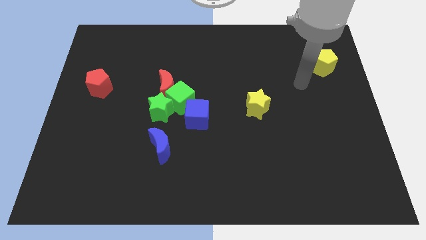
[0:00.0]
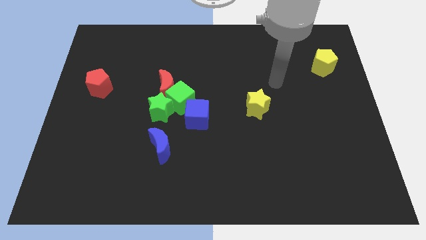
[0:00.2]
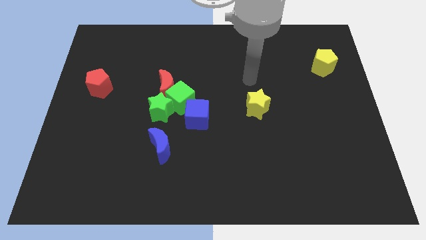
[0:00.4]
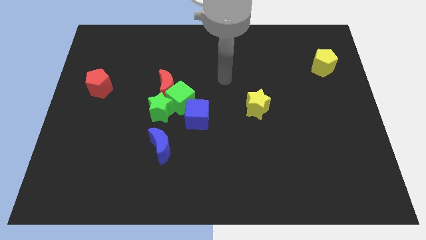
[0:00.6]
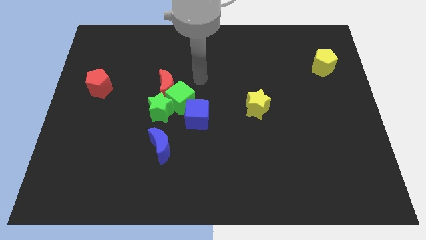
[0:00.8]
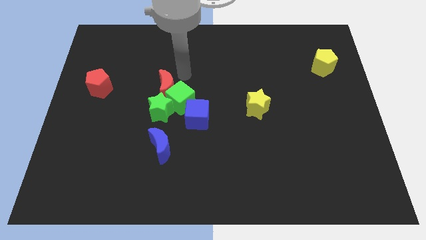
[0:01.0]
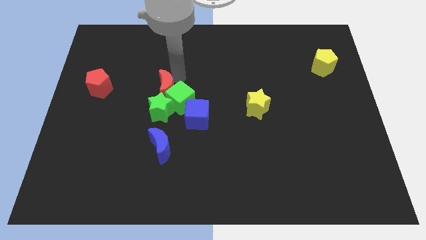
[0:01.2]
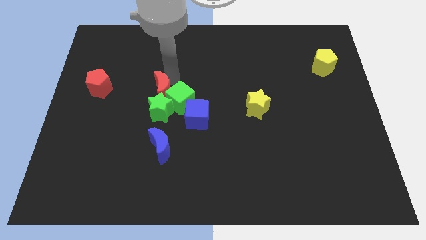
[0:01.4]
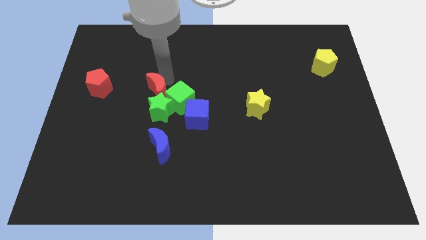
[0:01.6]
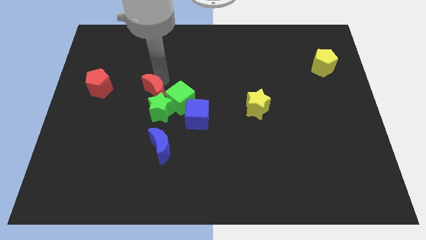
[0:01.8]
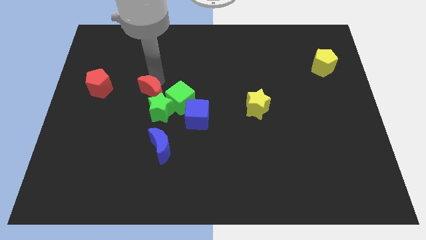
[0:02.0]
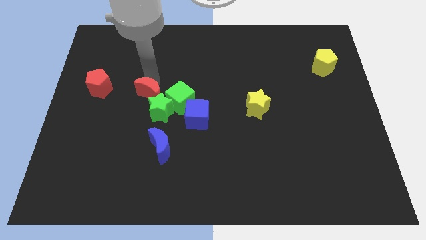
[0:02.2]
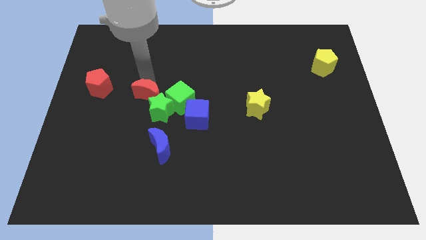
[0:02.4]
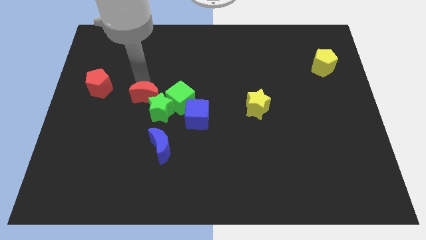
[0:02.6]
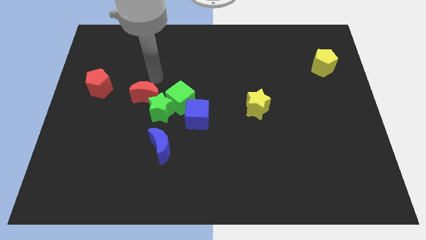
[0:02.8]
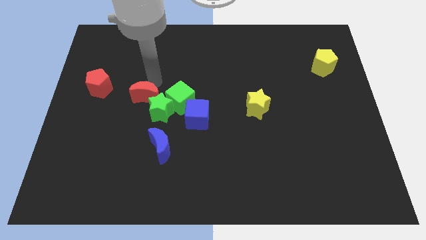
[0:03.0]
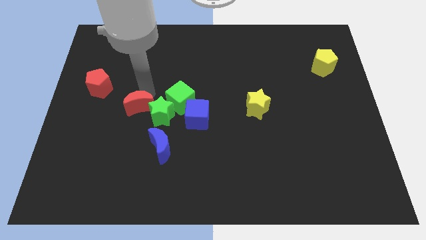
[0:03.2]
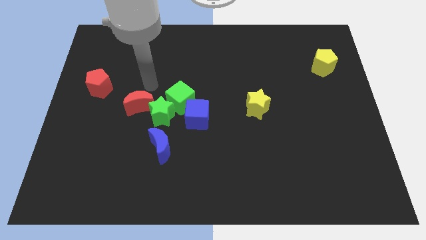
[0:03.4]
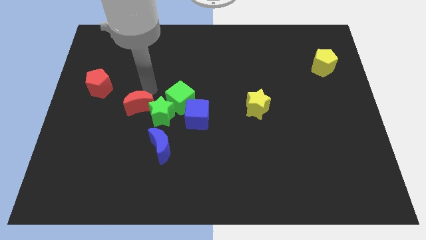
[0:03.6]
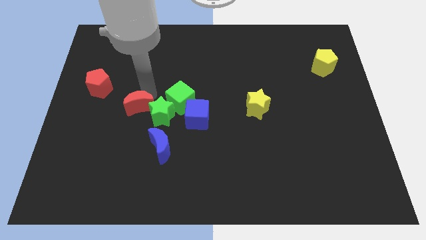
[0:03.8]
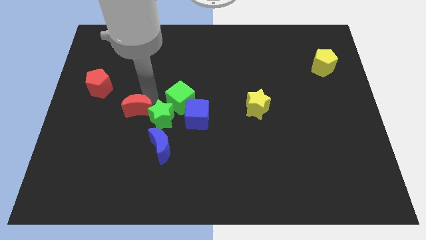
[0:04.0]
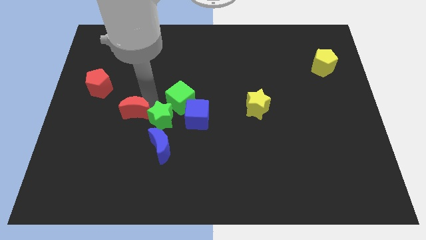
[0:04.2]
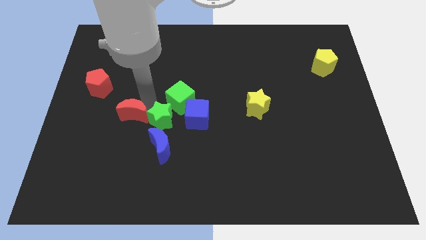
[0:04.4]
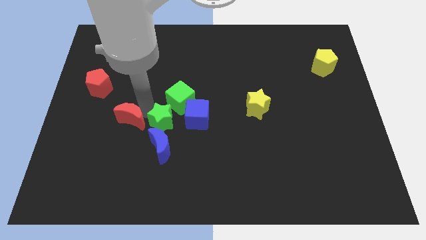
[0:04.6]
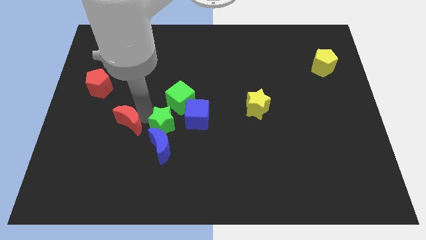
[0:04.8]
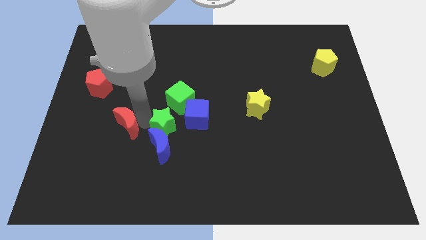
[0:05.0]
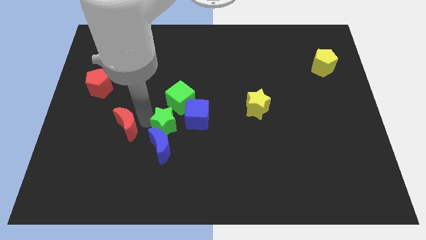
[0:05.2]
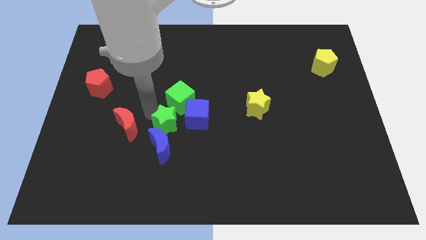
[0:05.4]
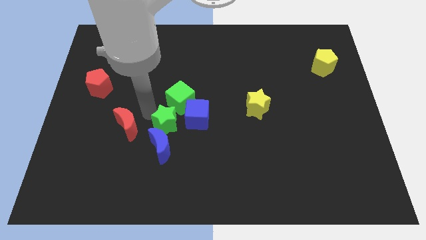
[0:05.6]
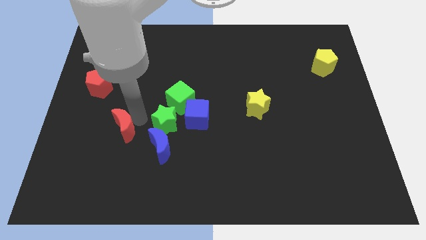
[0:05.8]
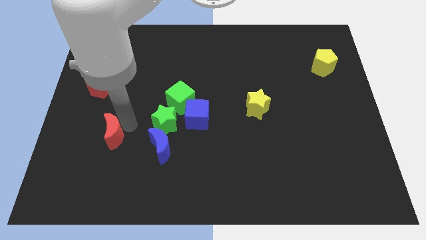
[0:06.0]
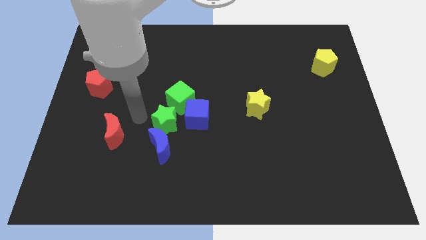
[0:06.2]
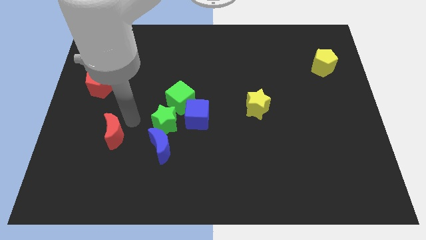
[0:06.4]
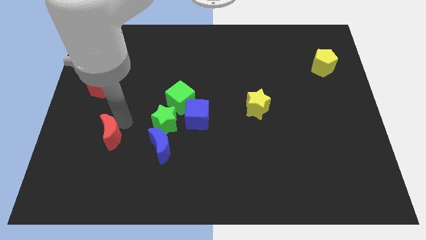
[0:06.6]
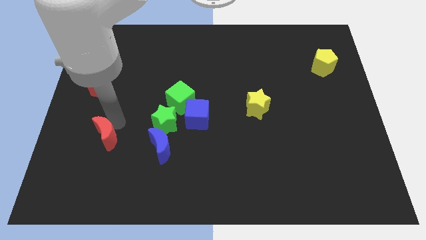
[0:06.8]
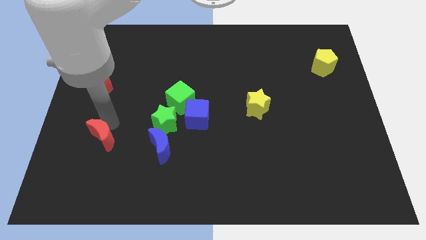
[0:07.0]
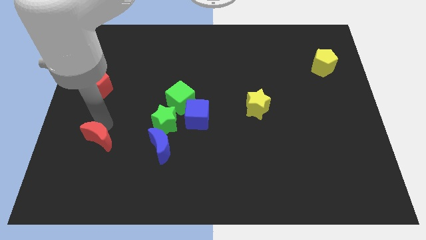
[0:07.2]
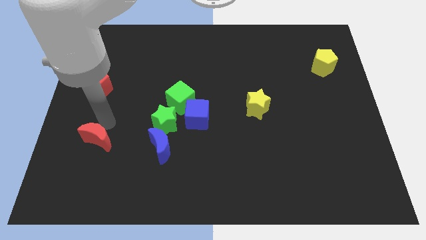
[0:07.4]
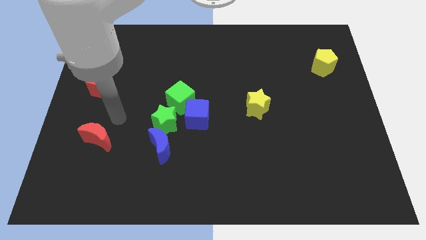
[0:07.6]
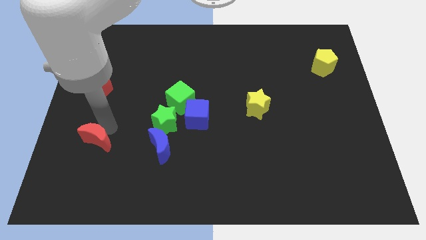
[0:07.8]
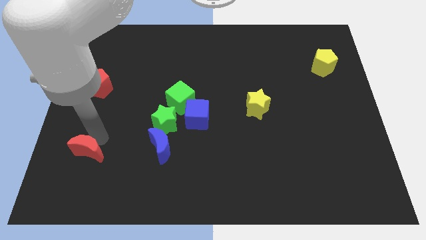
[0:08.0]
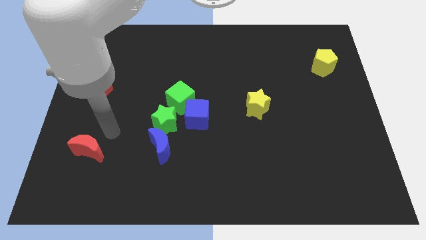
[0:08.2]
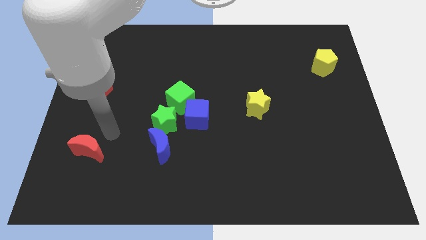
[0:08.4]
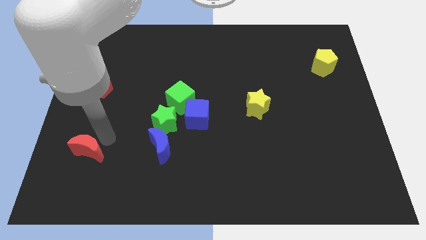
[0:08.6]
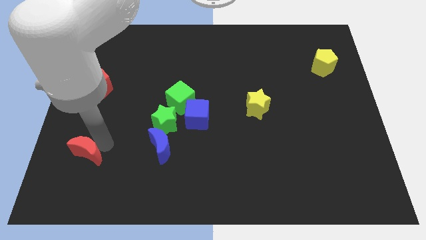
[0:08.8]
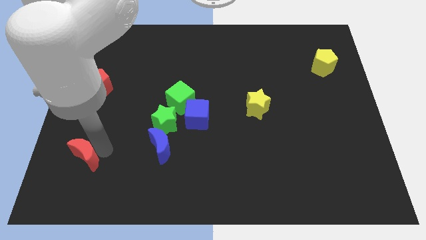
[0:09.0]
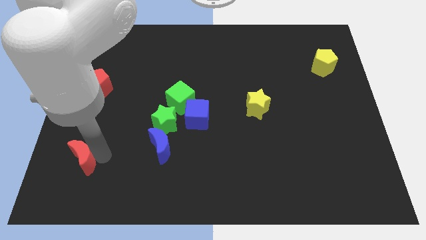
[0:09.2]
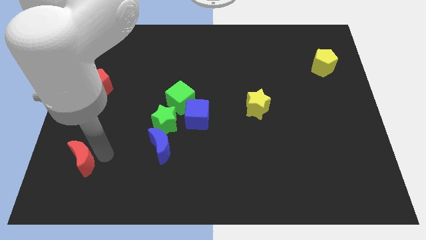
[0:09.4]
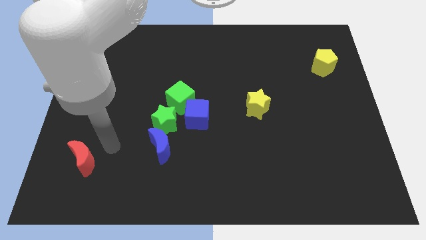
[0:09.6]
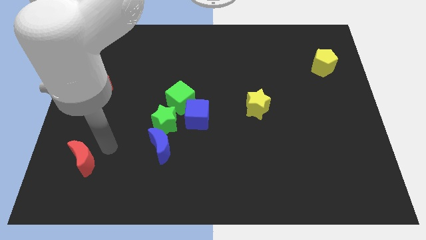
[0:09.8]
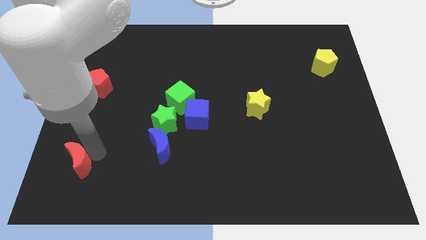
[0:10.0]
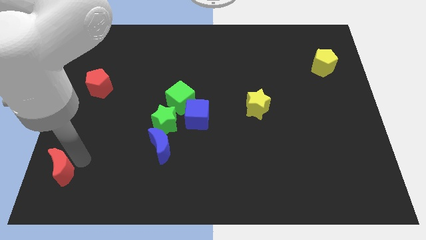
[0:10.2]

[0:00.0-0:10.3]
push the red moon to the bottom left

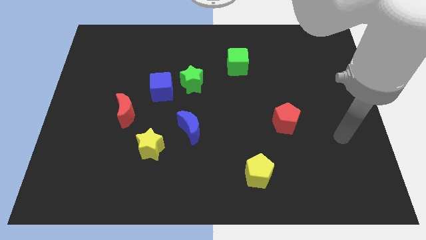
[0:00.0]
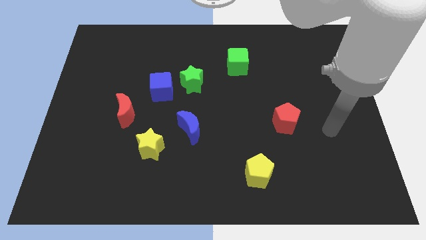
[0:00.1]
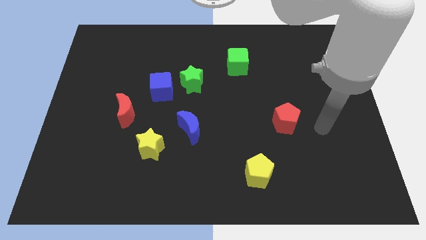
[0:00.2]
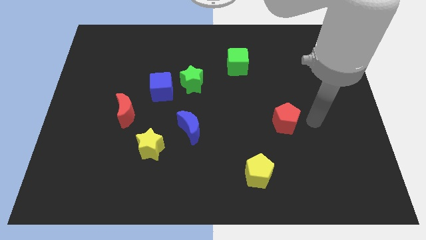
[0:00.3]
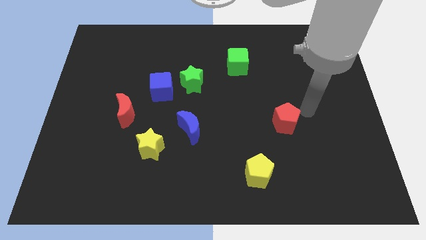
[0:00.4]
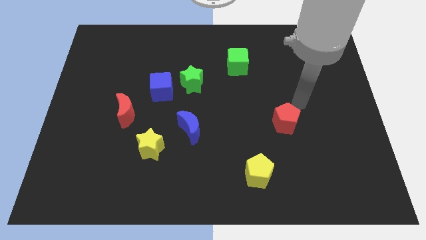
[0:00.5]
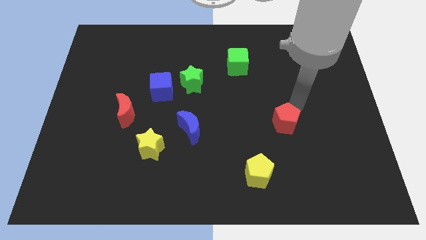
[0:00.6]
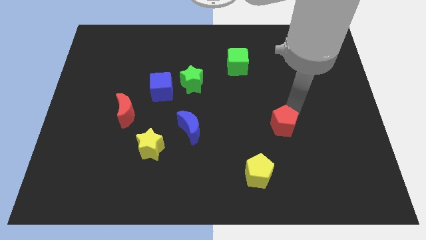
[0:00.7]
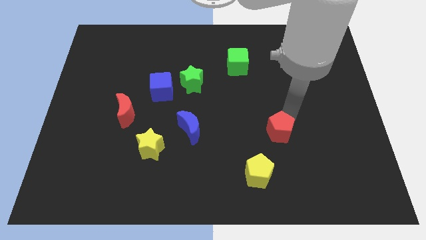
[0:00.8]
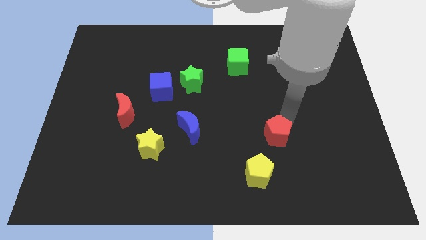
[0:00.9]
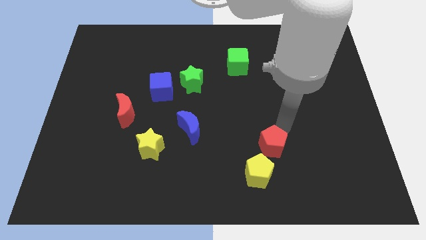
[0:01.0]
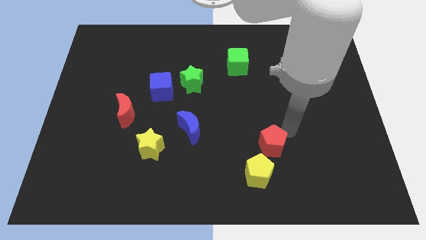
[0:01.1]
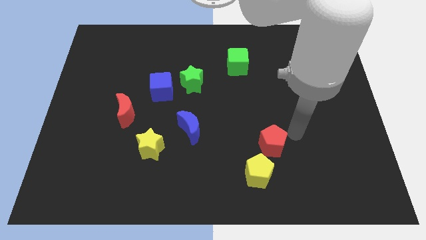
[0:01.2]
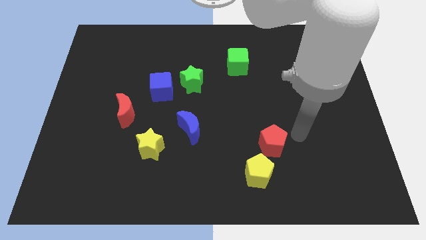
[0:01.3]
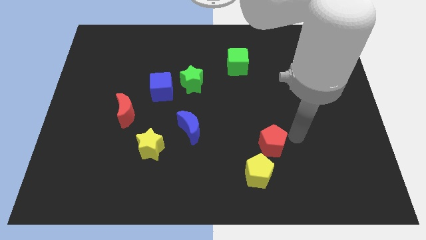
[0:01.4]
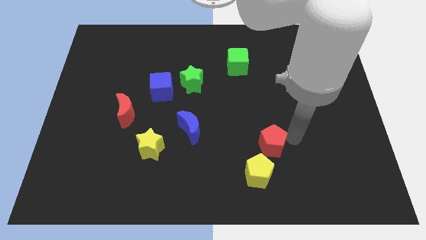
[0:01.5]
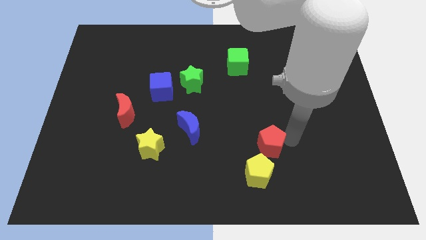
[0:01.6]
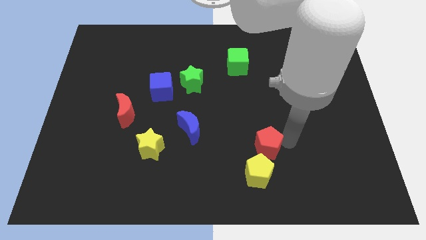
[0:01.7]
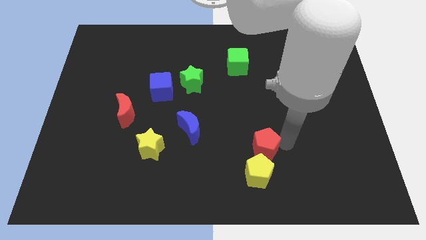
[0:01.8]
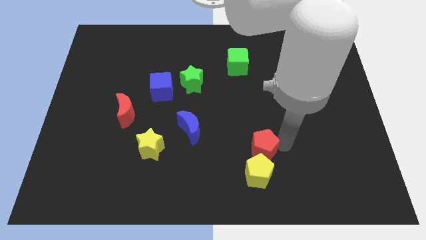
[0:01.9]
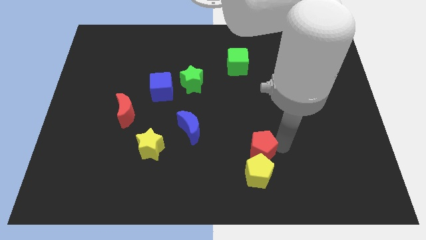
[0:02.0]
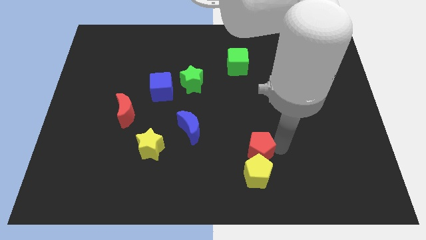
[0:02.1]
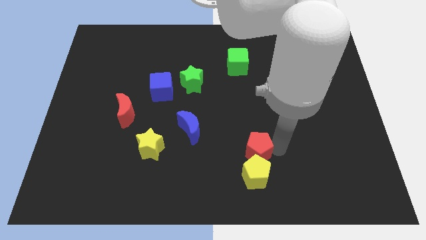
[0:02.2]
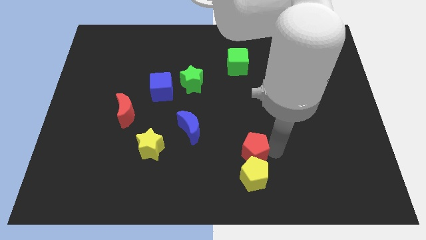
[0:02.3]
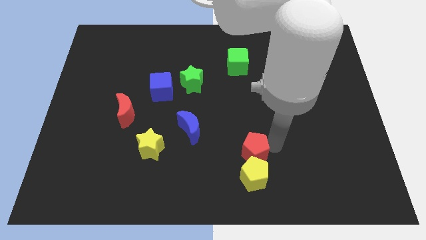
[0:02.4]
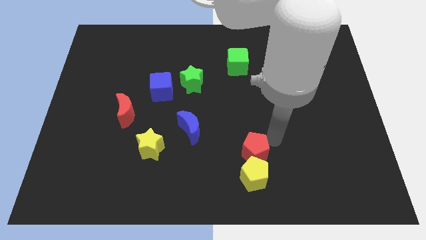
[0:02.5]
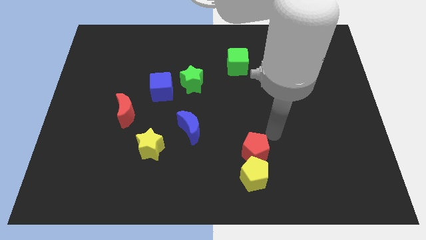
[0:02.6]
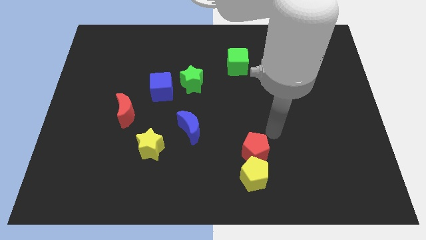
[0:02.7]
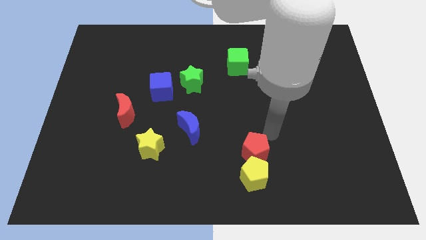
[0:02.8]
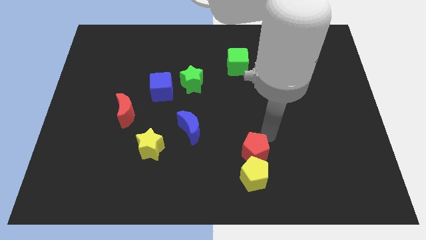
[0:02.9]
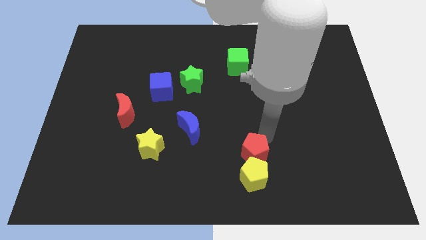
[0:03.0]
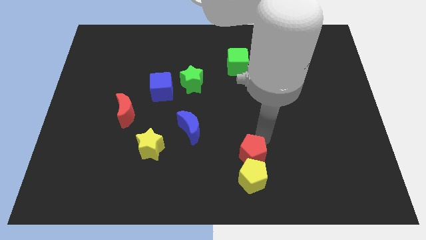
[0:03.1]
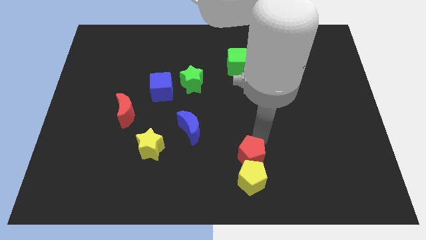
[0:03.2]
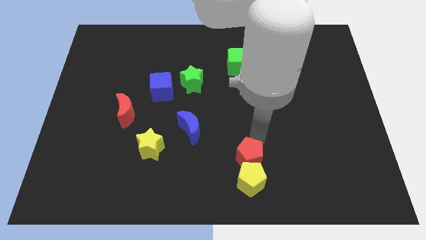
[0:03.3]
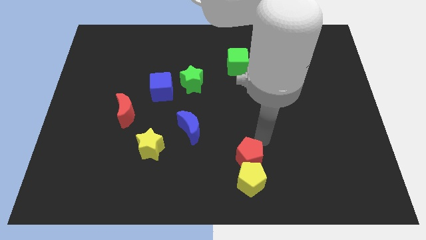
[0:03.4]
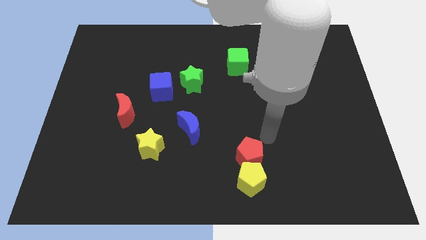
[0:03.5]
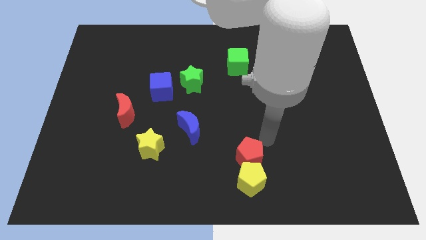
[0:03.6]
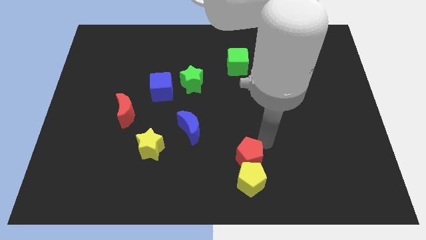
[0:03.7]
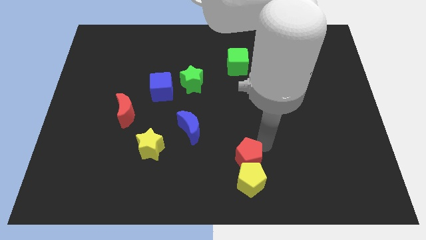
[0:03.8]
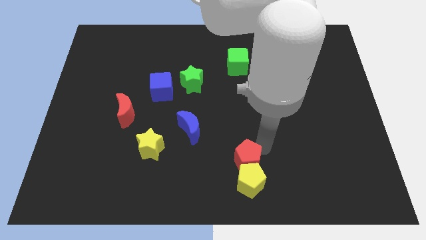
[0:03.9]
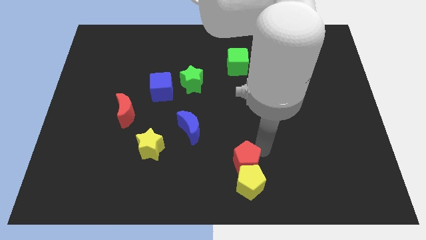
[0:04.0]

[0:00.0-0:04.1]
push the red pentagon to the bottom side
